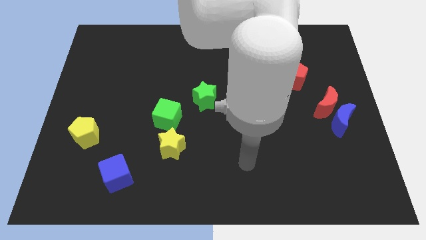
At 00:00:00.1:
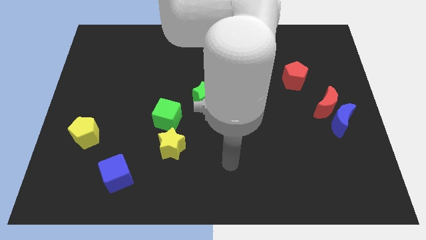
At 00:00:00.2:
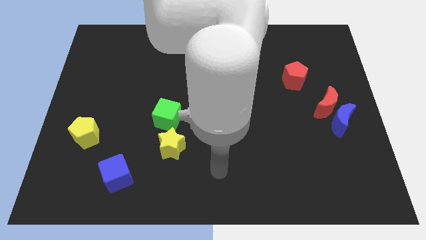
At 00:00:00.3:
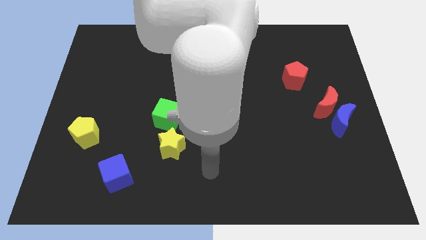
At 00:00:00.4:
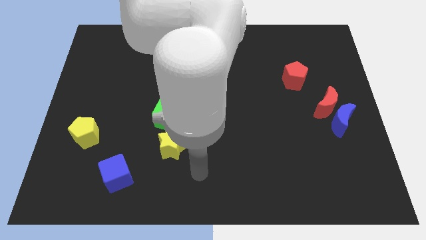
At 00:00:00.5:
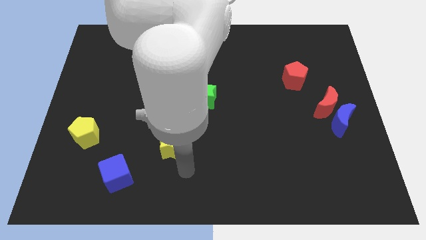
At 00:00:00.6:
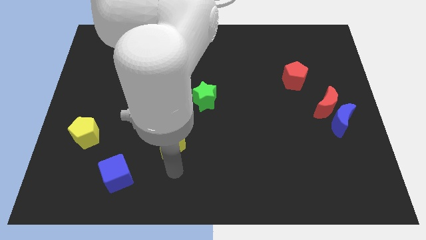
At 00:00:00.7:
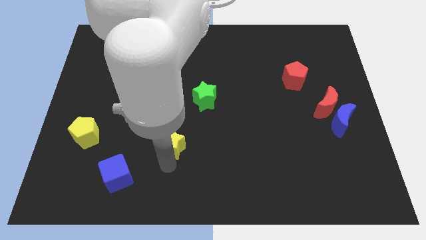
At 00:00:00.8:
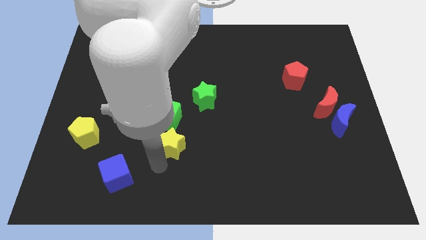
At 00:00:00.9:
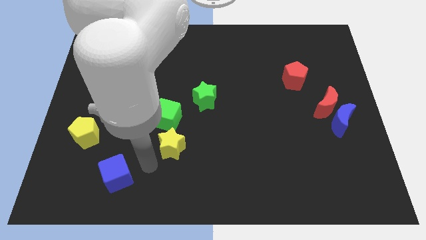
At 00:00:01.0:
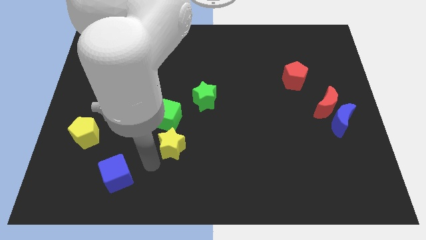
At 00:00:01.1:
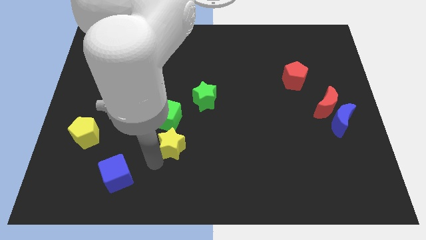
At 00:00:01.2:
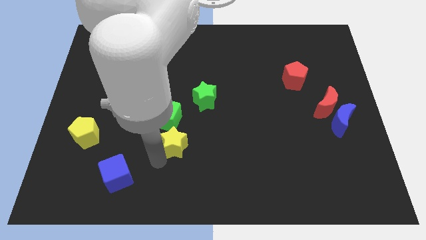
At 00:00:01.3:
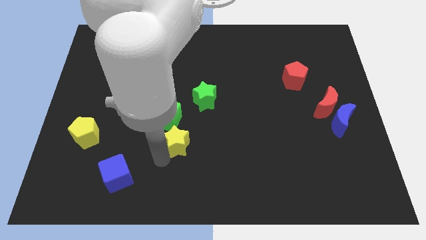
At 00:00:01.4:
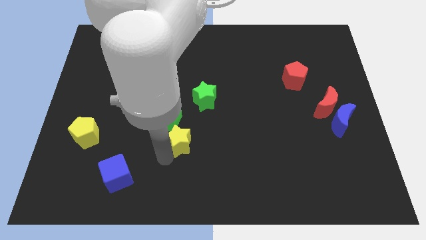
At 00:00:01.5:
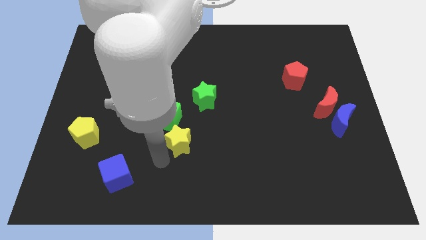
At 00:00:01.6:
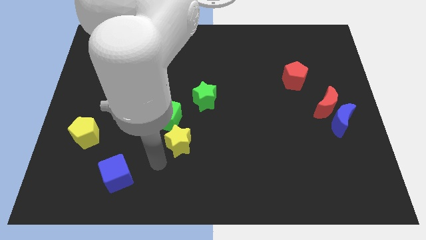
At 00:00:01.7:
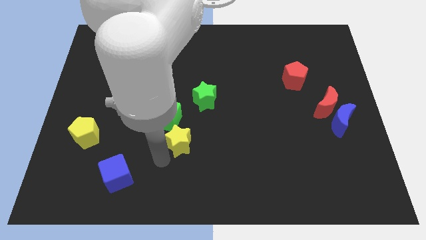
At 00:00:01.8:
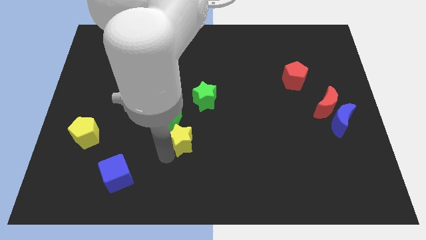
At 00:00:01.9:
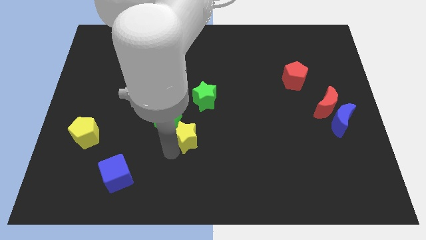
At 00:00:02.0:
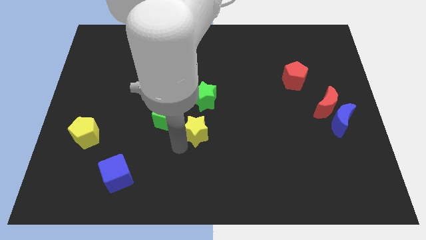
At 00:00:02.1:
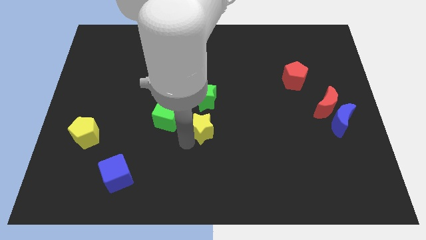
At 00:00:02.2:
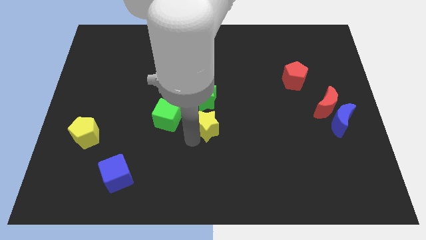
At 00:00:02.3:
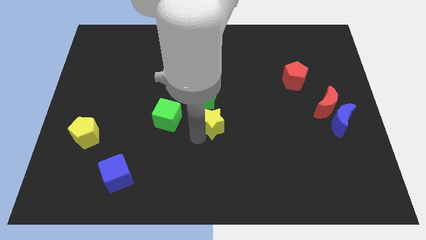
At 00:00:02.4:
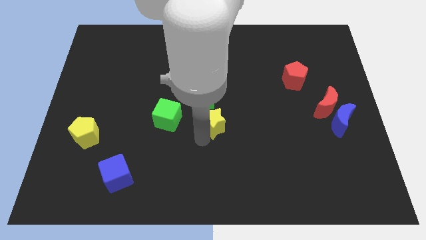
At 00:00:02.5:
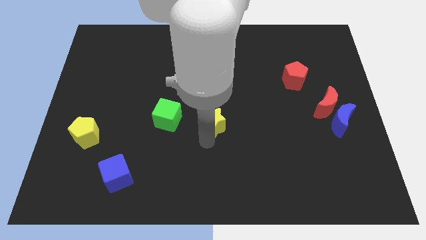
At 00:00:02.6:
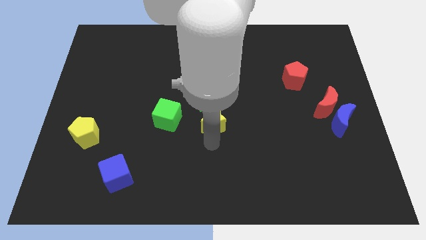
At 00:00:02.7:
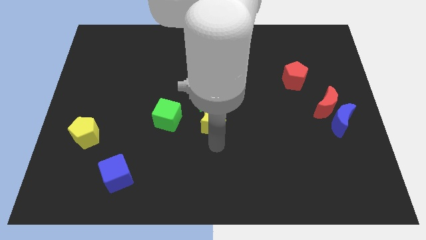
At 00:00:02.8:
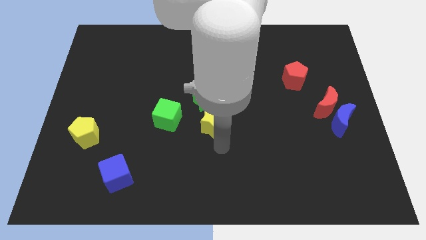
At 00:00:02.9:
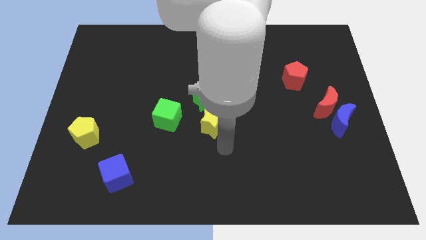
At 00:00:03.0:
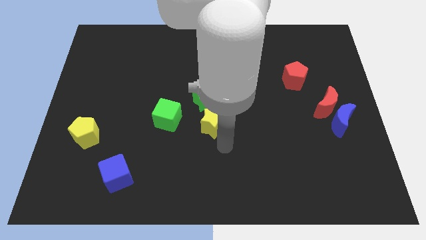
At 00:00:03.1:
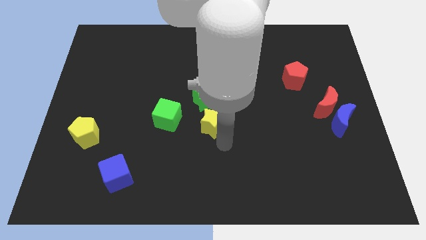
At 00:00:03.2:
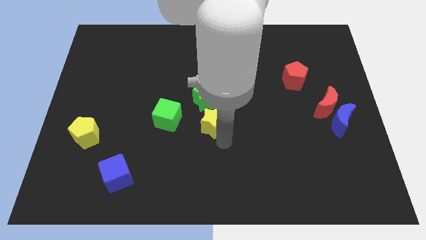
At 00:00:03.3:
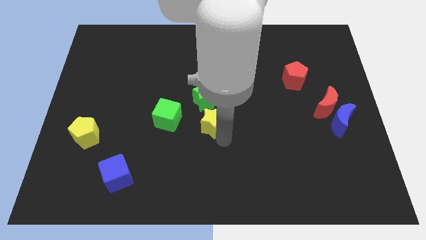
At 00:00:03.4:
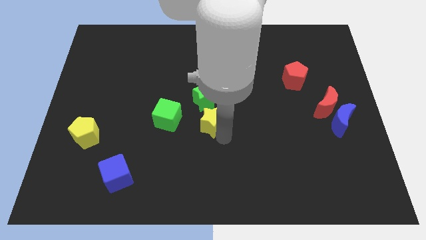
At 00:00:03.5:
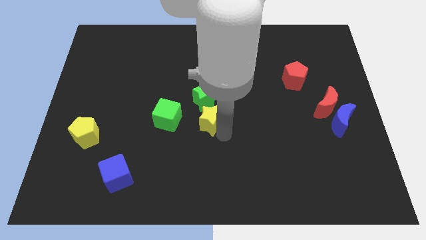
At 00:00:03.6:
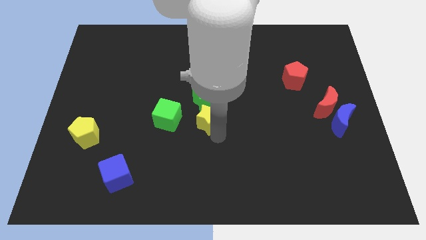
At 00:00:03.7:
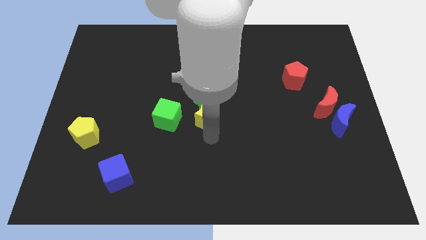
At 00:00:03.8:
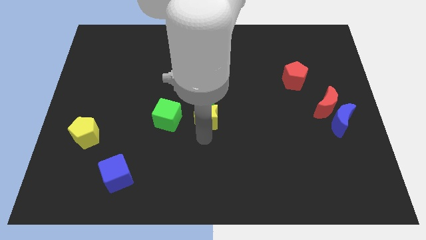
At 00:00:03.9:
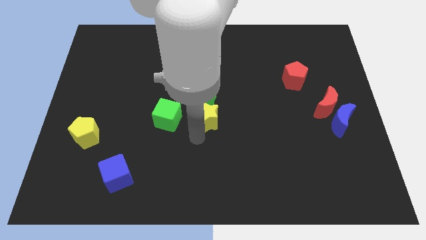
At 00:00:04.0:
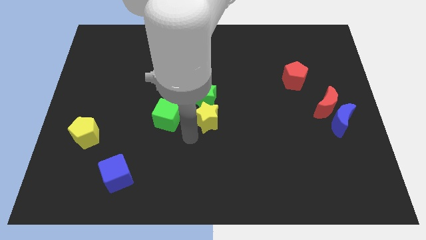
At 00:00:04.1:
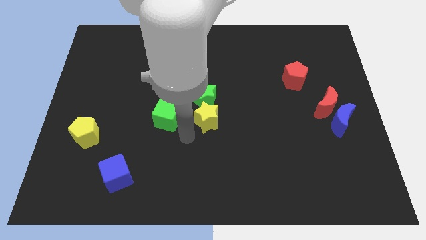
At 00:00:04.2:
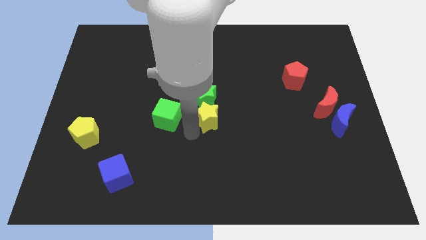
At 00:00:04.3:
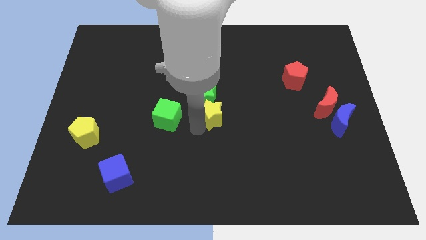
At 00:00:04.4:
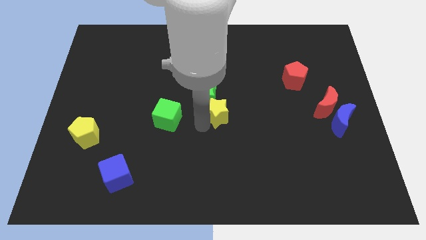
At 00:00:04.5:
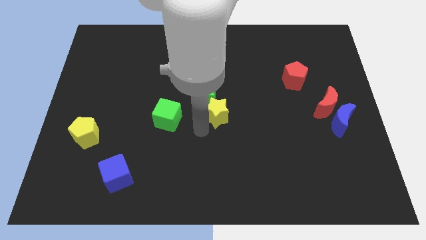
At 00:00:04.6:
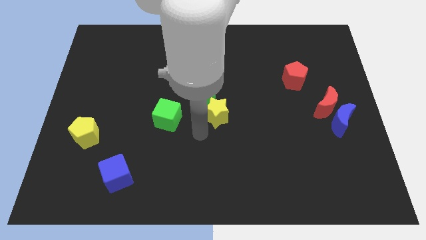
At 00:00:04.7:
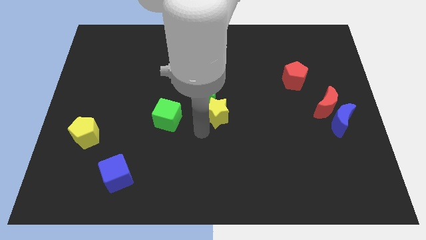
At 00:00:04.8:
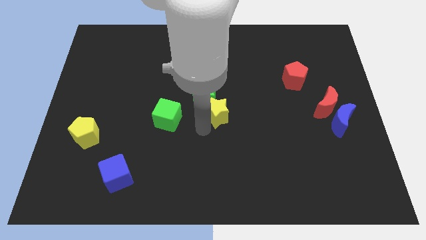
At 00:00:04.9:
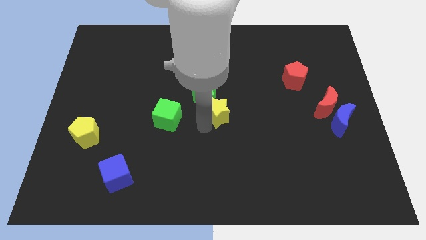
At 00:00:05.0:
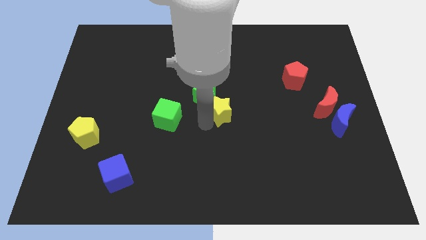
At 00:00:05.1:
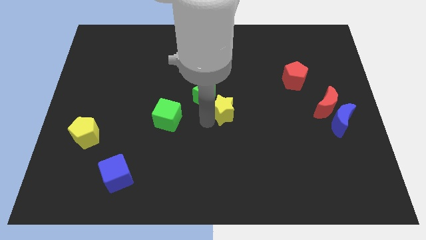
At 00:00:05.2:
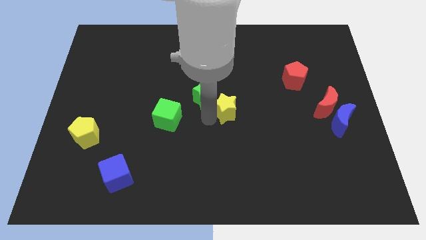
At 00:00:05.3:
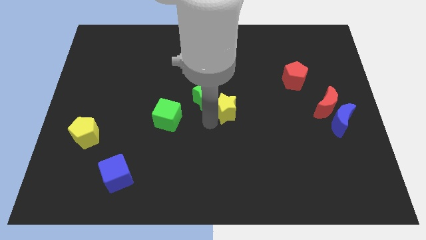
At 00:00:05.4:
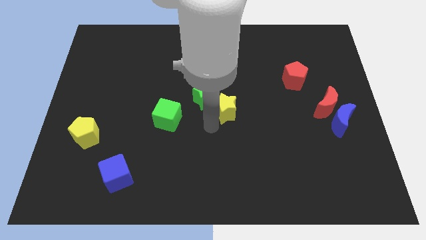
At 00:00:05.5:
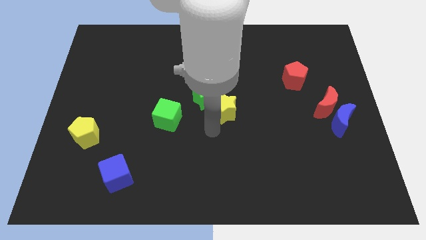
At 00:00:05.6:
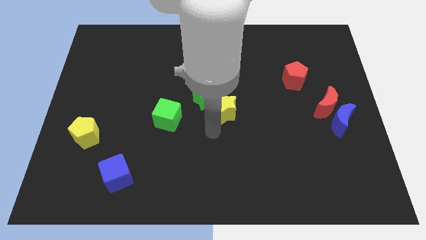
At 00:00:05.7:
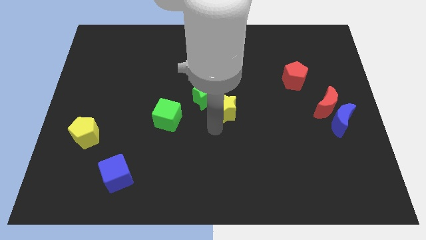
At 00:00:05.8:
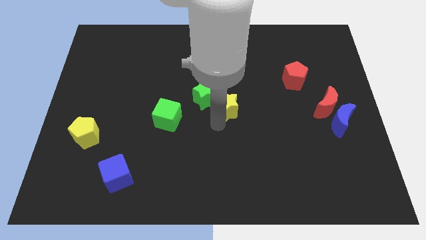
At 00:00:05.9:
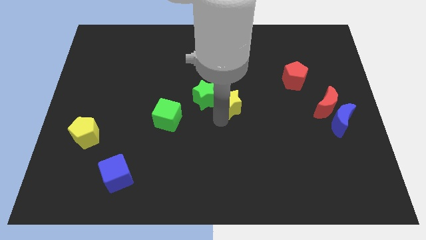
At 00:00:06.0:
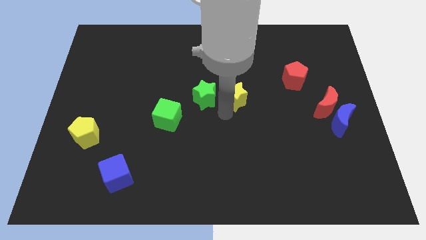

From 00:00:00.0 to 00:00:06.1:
slide the yellow star up and to the right diagonally

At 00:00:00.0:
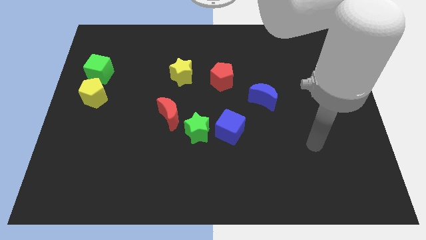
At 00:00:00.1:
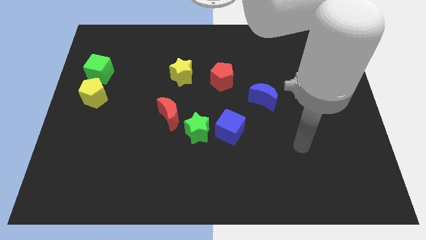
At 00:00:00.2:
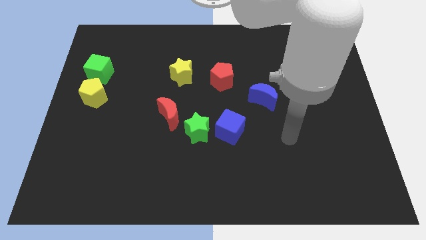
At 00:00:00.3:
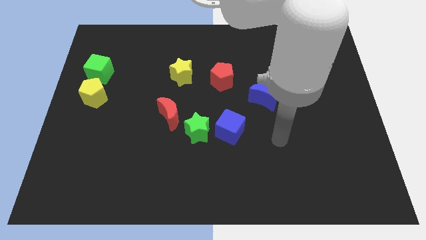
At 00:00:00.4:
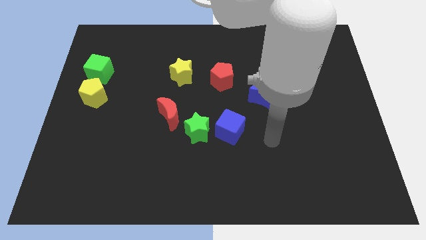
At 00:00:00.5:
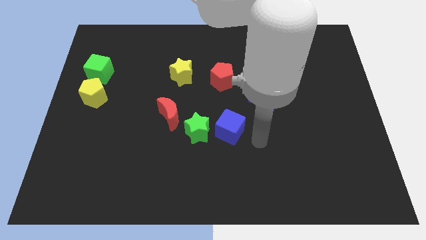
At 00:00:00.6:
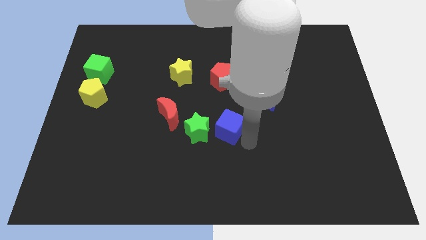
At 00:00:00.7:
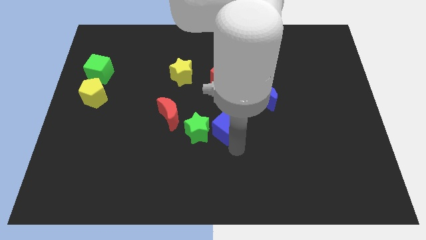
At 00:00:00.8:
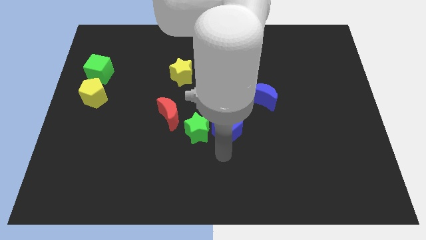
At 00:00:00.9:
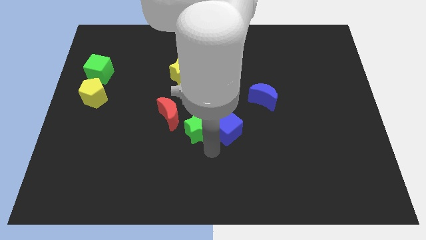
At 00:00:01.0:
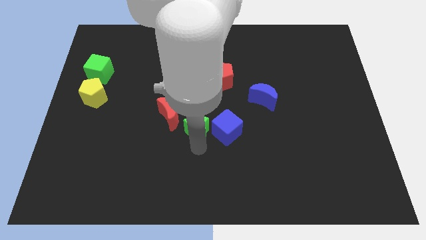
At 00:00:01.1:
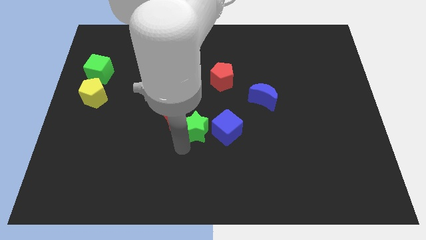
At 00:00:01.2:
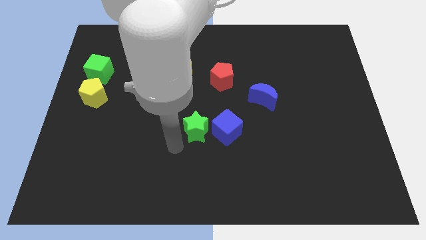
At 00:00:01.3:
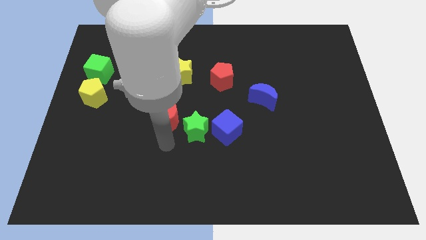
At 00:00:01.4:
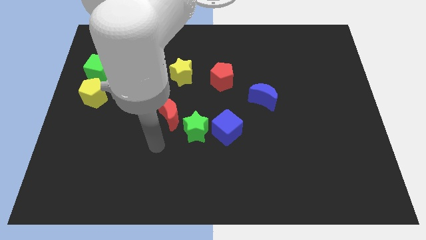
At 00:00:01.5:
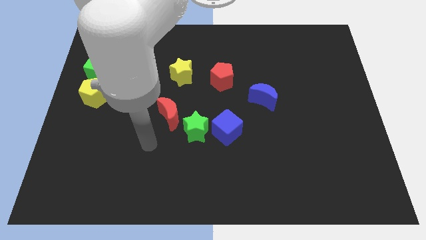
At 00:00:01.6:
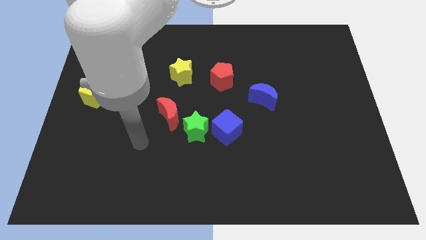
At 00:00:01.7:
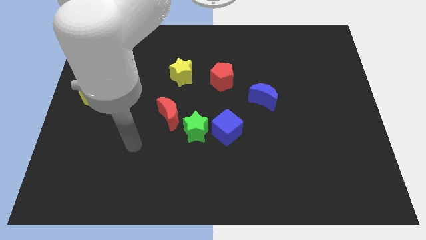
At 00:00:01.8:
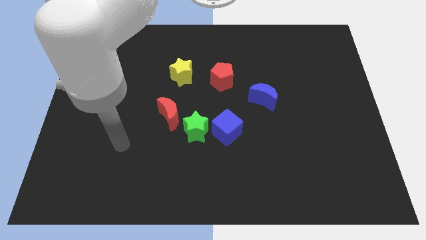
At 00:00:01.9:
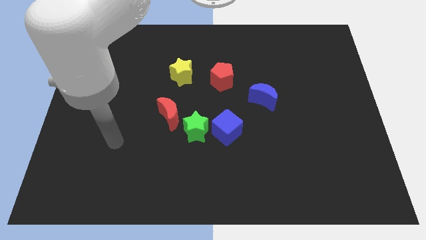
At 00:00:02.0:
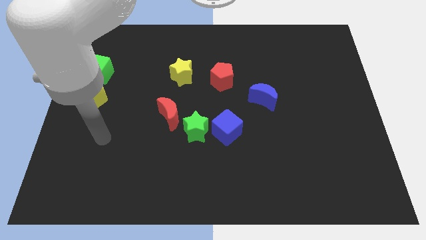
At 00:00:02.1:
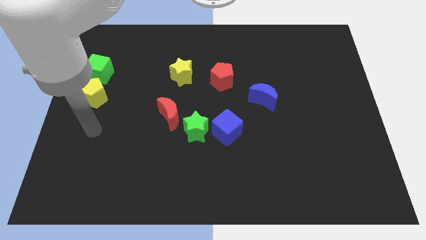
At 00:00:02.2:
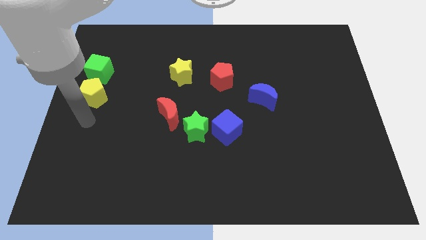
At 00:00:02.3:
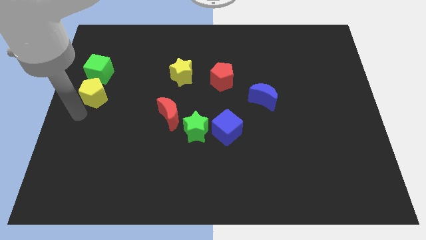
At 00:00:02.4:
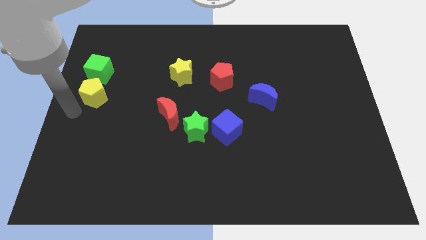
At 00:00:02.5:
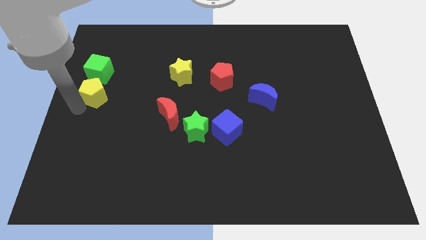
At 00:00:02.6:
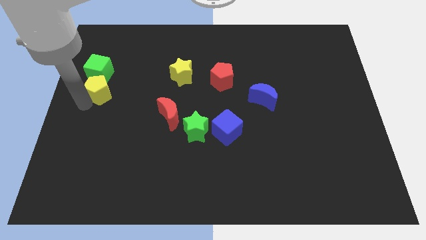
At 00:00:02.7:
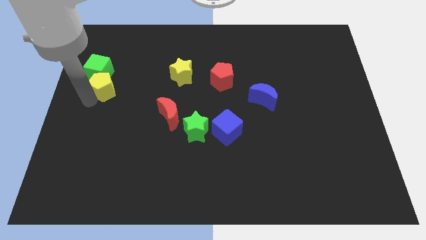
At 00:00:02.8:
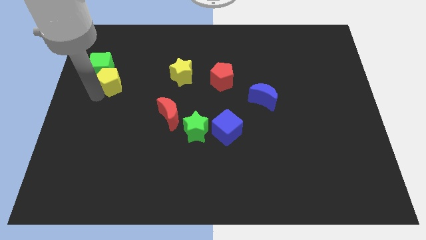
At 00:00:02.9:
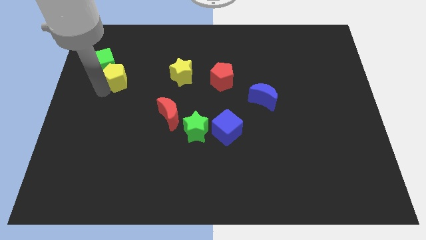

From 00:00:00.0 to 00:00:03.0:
slightly push the yellow pentagon up and right
